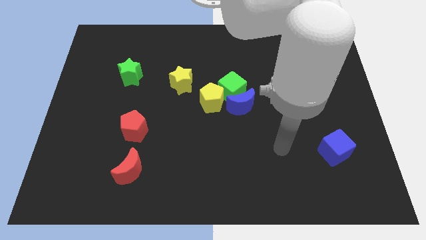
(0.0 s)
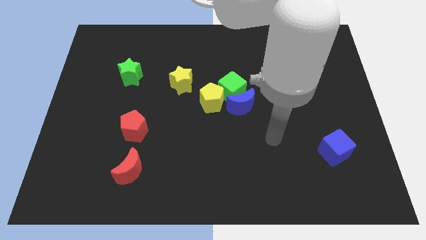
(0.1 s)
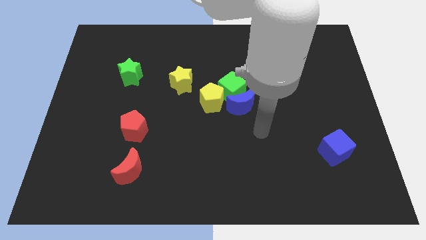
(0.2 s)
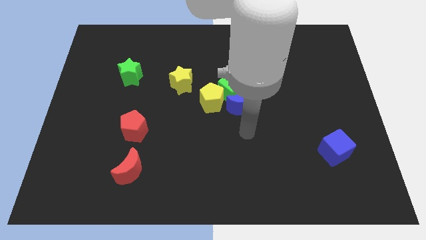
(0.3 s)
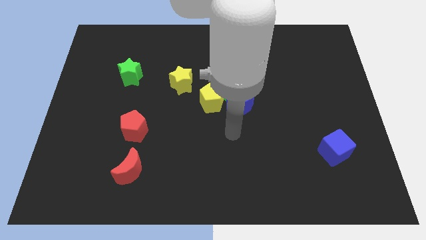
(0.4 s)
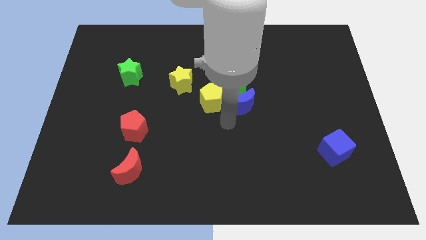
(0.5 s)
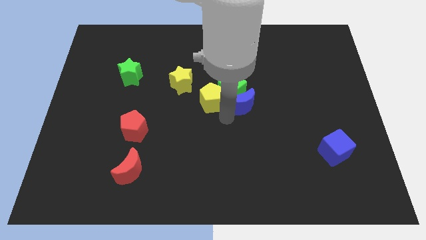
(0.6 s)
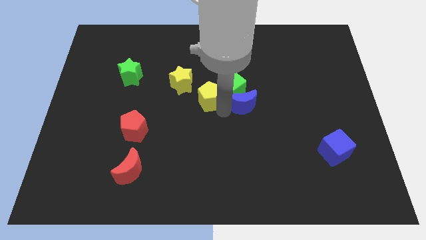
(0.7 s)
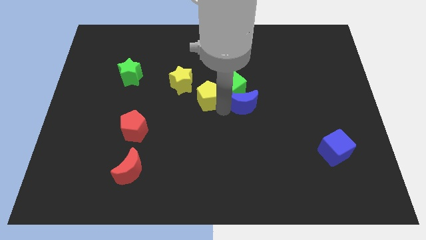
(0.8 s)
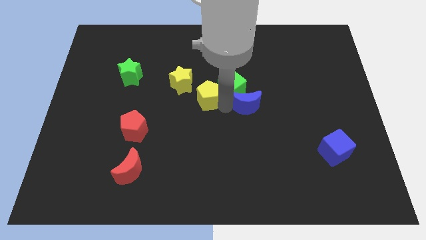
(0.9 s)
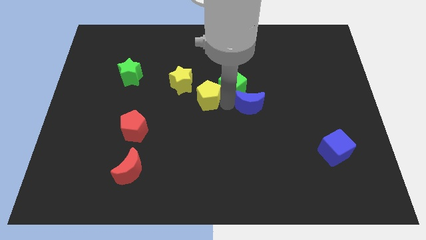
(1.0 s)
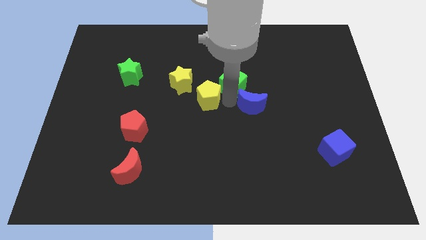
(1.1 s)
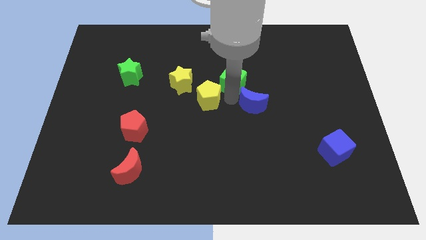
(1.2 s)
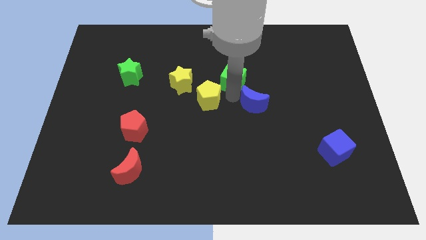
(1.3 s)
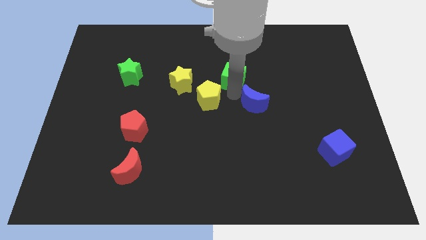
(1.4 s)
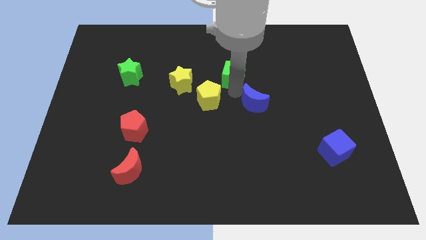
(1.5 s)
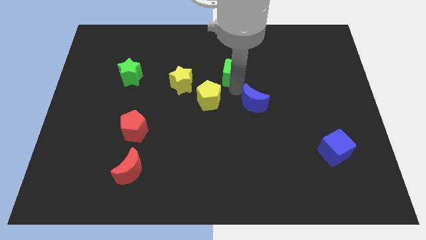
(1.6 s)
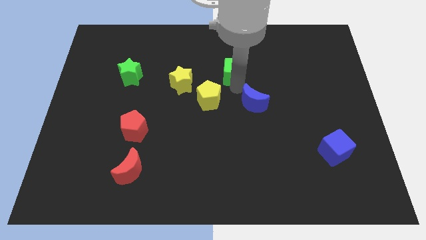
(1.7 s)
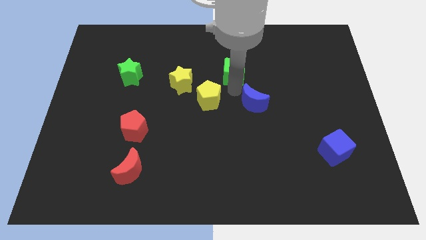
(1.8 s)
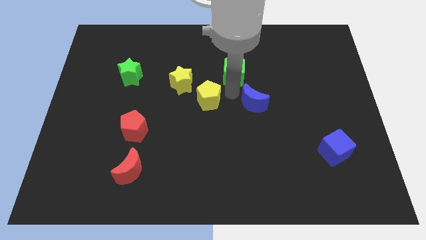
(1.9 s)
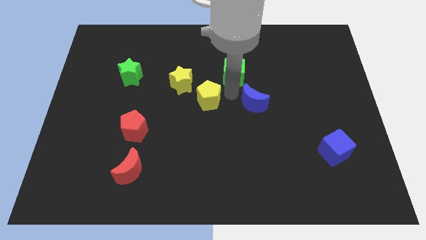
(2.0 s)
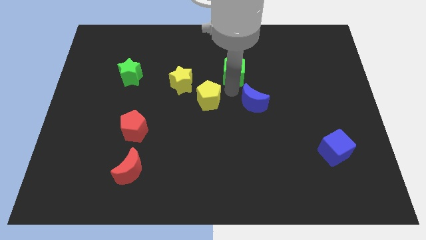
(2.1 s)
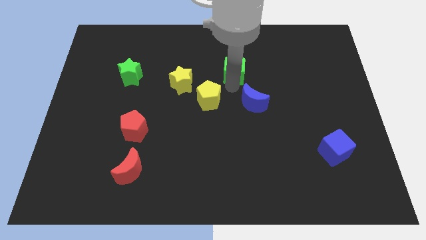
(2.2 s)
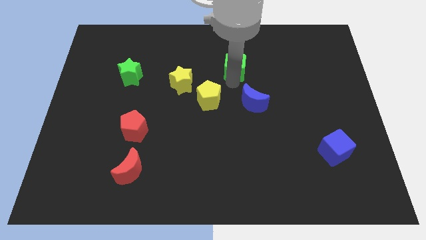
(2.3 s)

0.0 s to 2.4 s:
move the green cube away from the blue moon and yellow pentagon

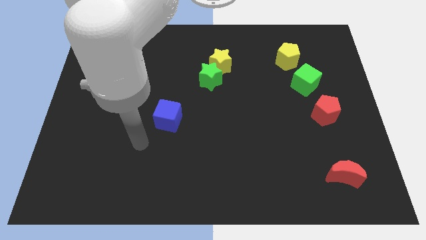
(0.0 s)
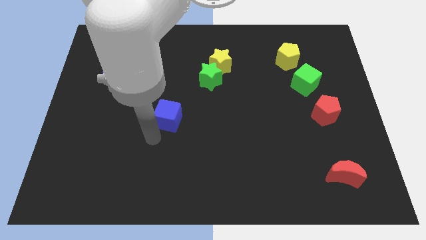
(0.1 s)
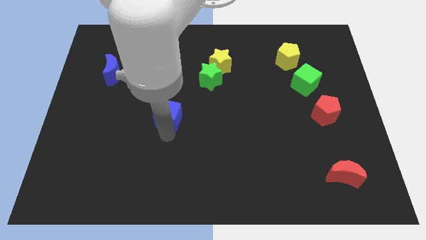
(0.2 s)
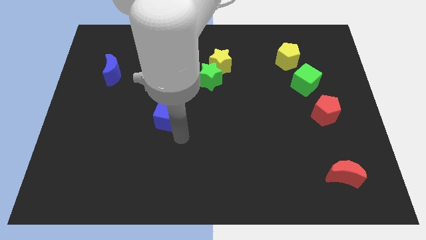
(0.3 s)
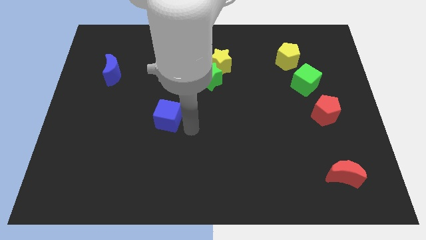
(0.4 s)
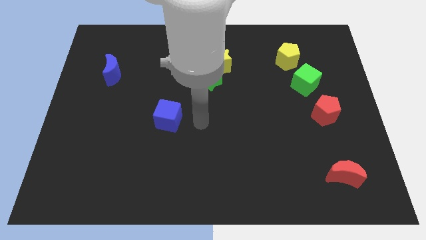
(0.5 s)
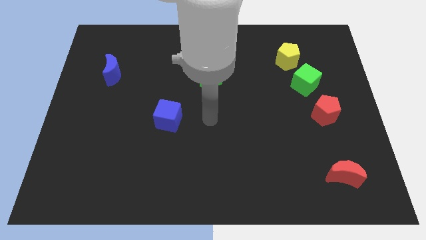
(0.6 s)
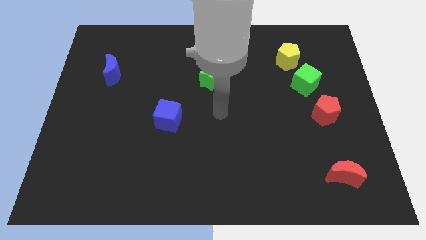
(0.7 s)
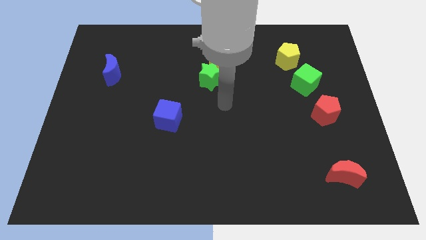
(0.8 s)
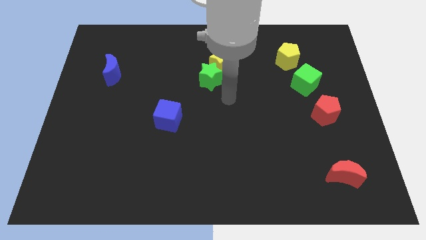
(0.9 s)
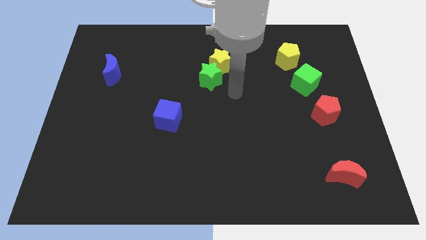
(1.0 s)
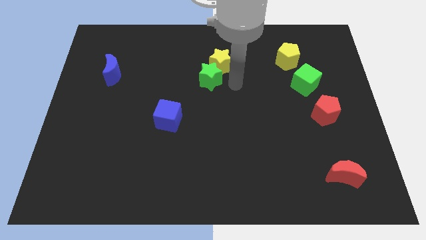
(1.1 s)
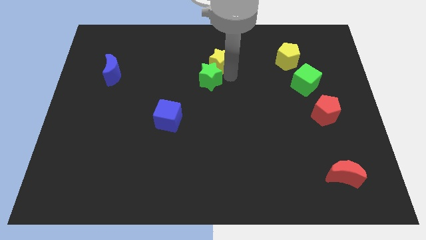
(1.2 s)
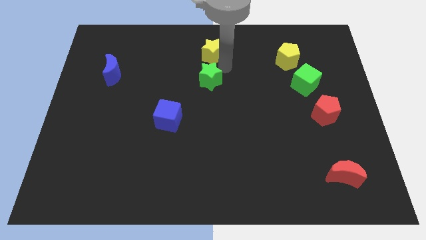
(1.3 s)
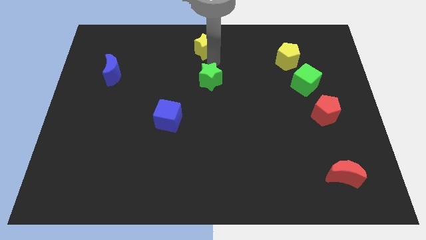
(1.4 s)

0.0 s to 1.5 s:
pull the green star apart from the yellow star

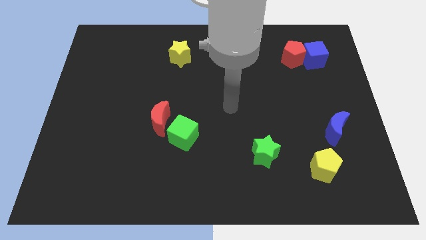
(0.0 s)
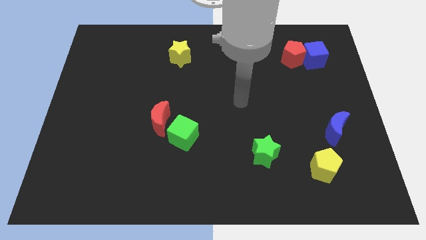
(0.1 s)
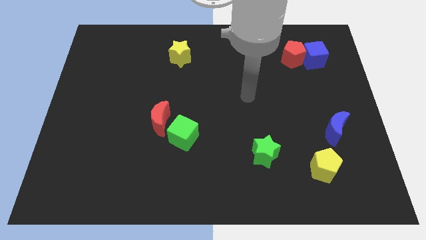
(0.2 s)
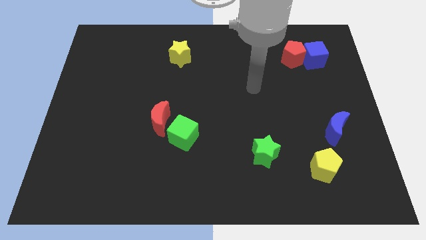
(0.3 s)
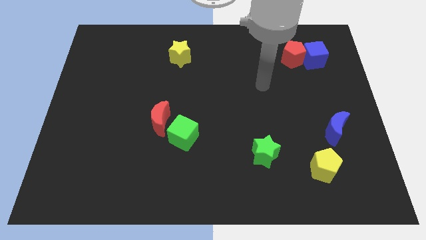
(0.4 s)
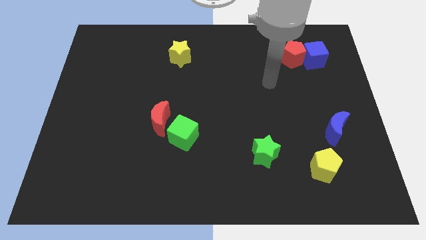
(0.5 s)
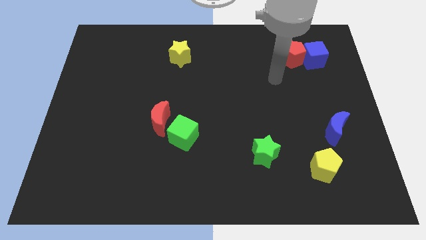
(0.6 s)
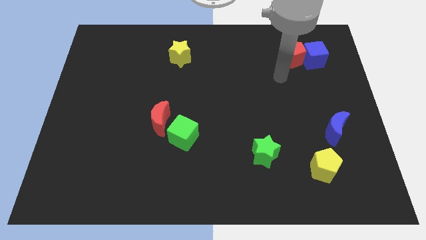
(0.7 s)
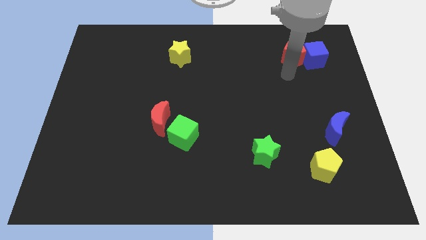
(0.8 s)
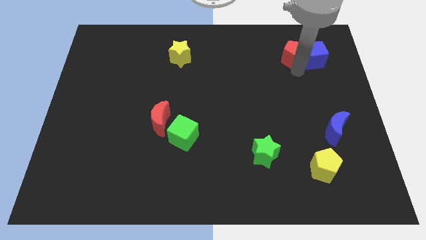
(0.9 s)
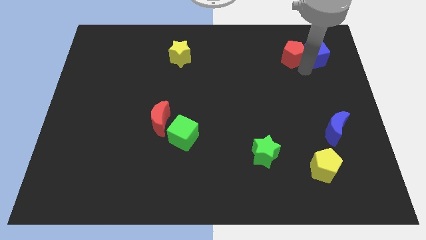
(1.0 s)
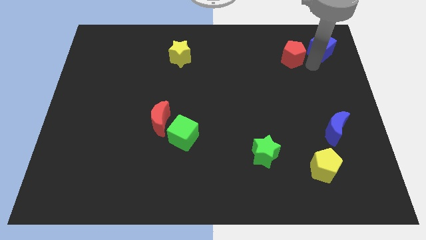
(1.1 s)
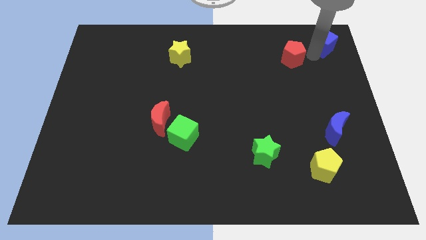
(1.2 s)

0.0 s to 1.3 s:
move the red pentagon away from the blue cube

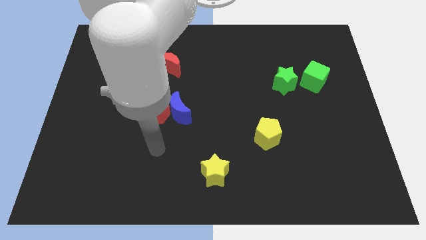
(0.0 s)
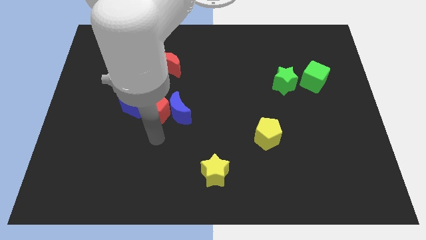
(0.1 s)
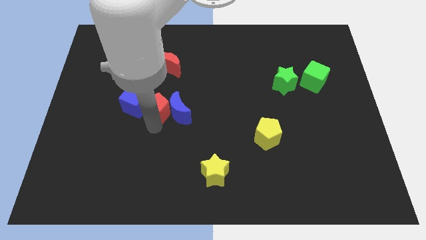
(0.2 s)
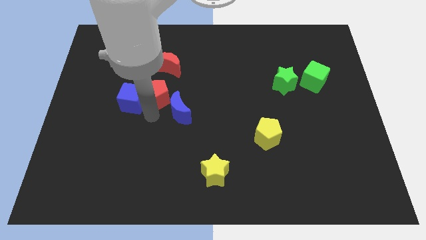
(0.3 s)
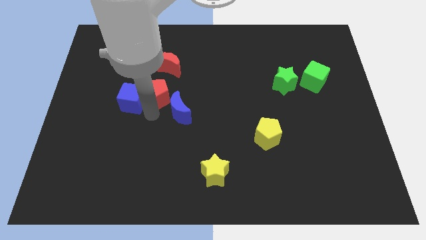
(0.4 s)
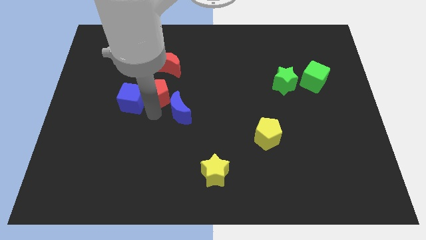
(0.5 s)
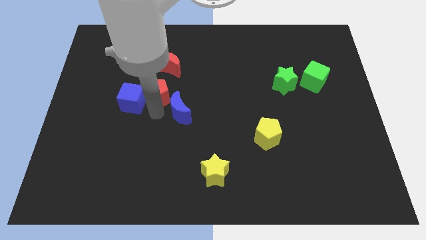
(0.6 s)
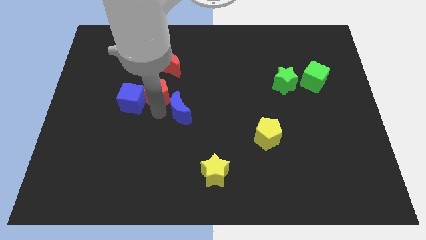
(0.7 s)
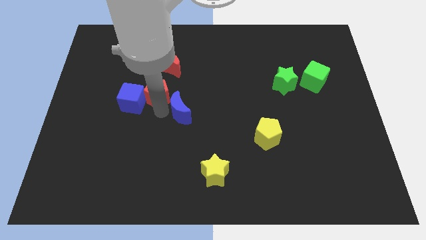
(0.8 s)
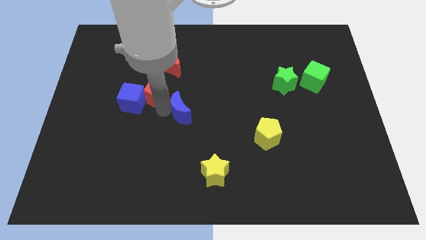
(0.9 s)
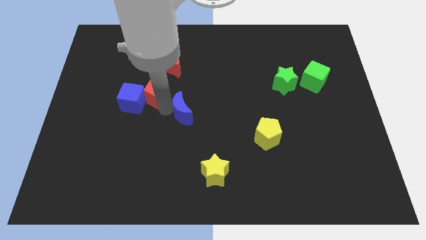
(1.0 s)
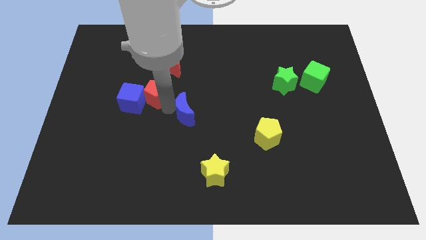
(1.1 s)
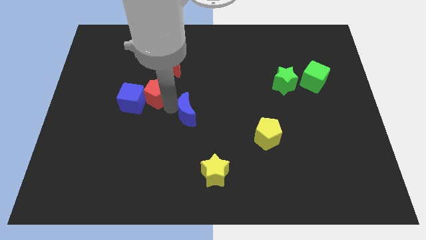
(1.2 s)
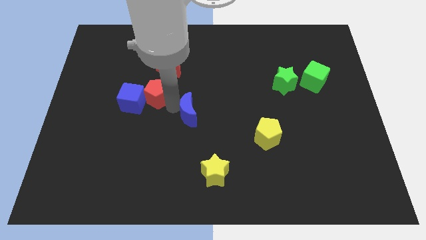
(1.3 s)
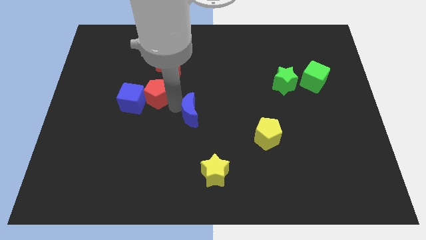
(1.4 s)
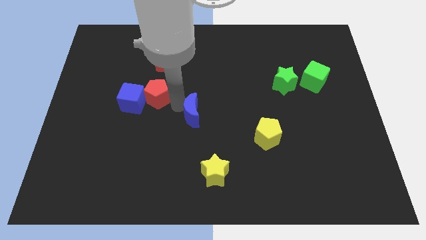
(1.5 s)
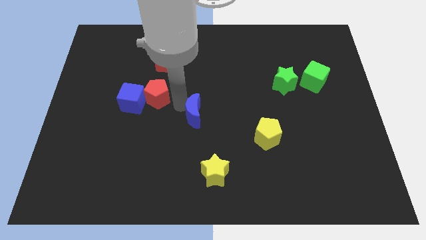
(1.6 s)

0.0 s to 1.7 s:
separate the blue moon from the red pentagon

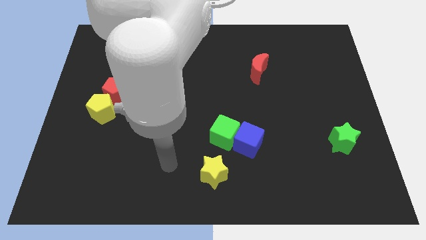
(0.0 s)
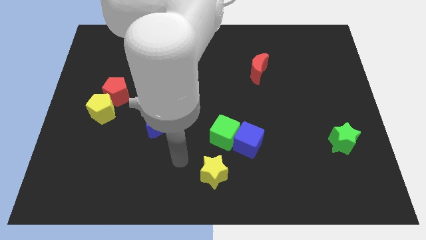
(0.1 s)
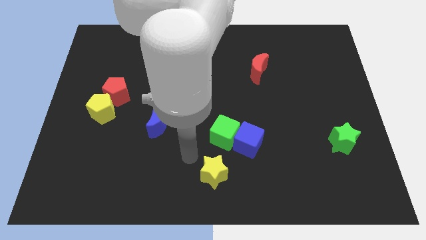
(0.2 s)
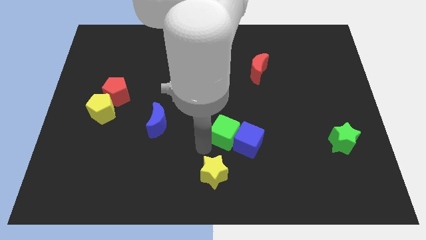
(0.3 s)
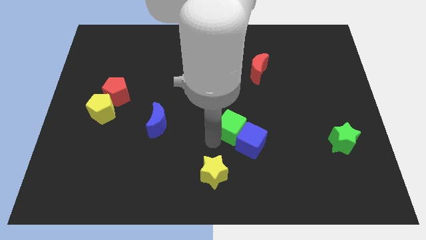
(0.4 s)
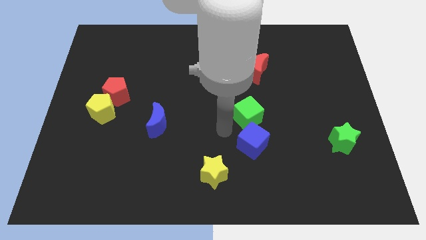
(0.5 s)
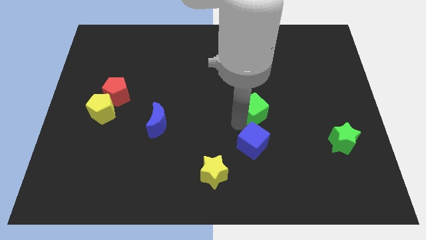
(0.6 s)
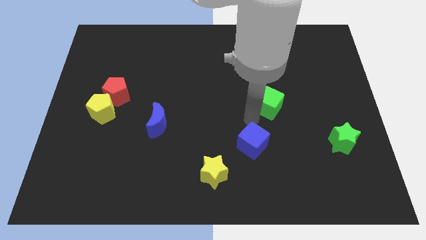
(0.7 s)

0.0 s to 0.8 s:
pull the blue cube apart from the green cube

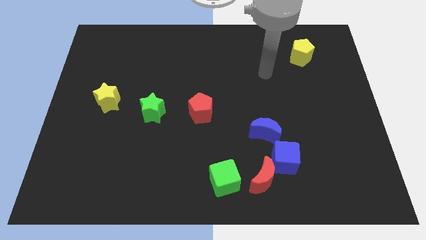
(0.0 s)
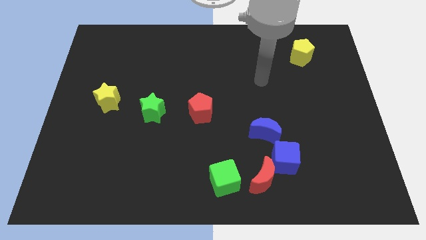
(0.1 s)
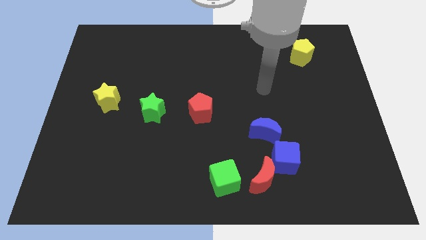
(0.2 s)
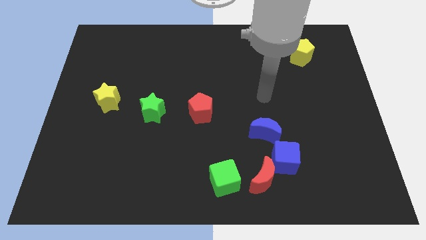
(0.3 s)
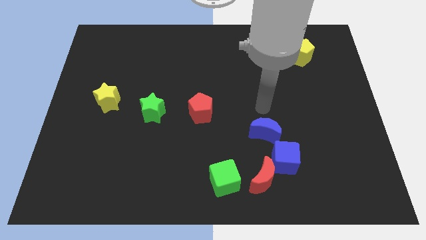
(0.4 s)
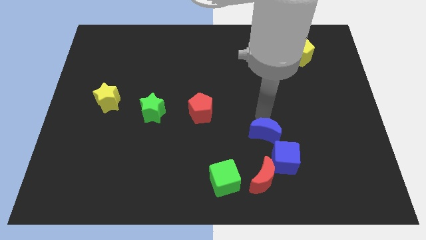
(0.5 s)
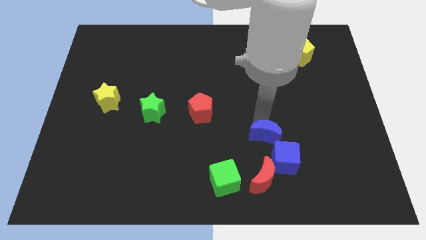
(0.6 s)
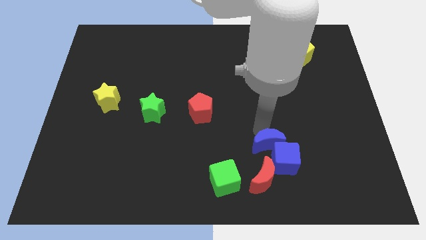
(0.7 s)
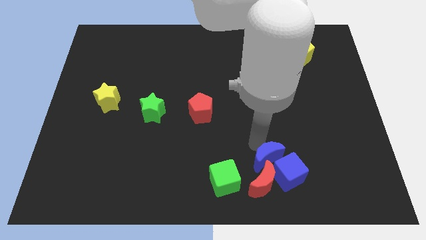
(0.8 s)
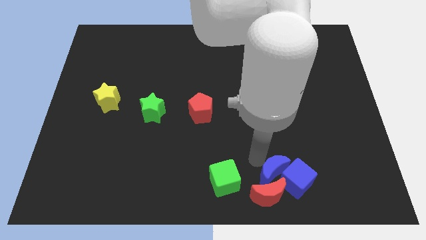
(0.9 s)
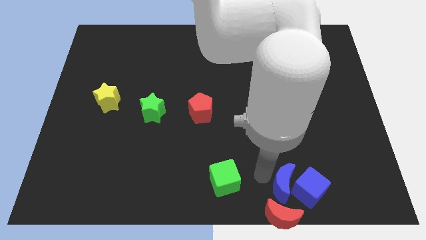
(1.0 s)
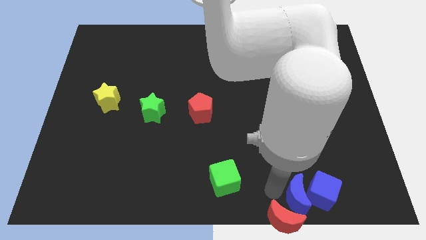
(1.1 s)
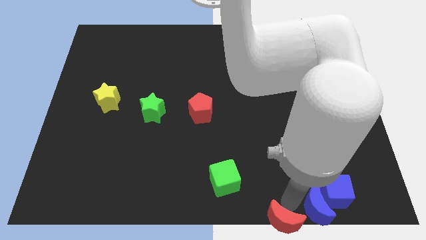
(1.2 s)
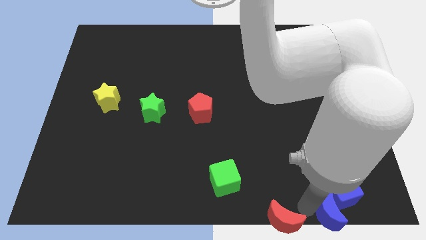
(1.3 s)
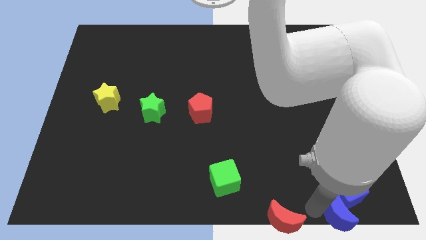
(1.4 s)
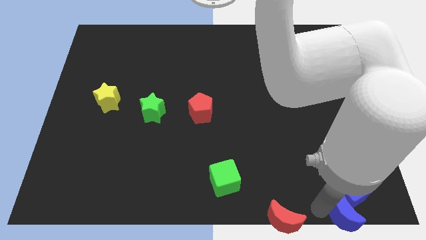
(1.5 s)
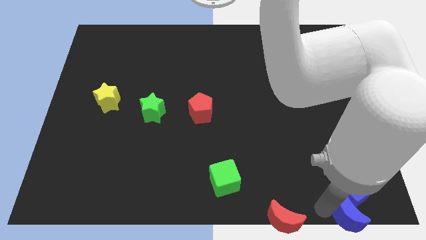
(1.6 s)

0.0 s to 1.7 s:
pull the blue cube apart from the red moon and blue moon
